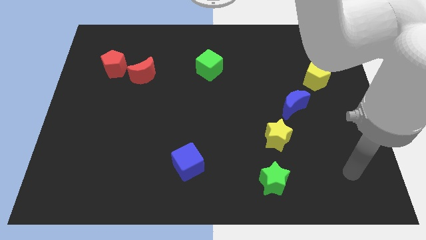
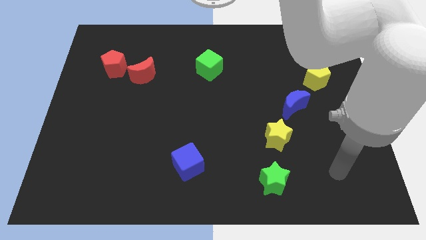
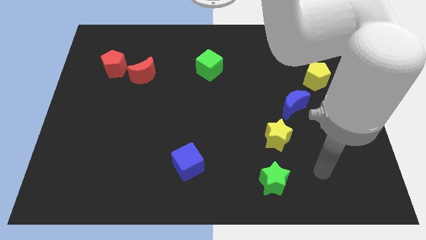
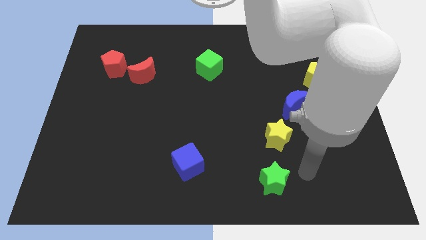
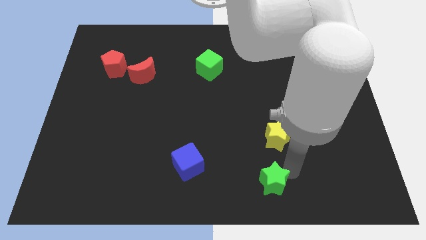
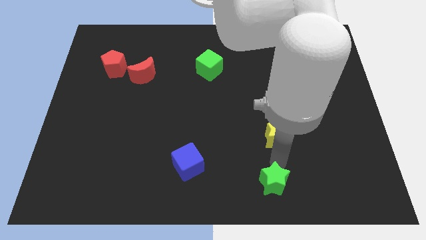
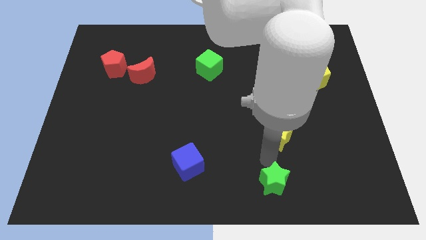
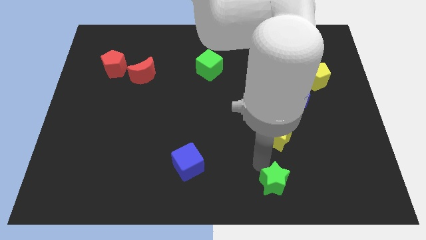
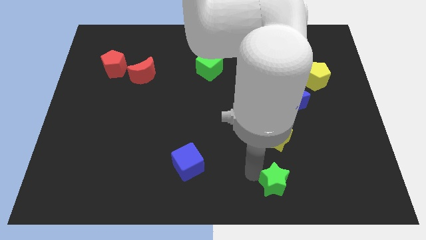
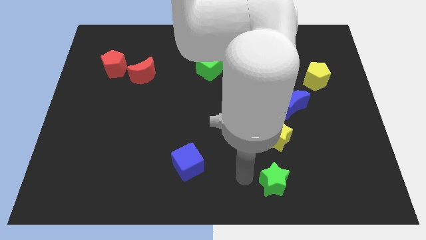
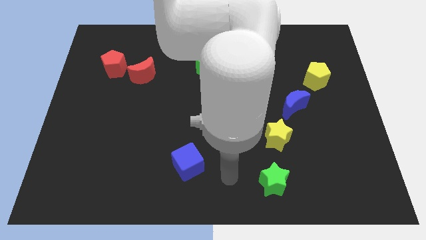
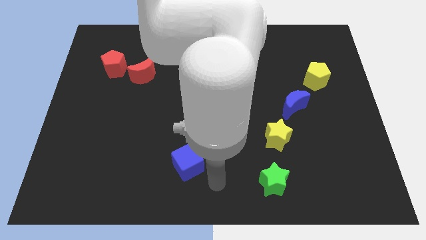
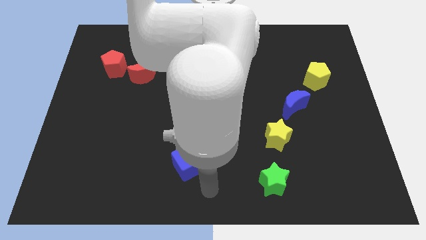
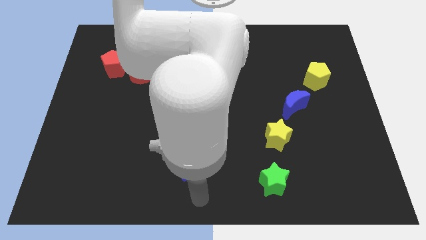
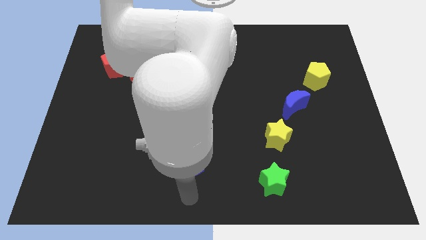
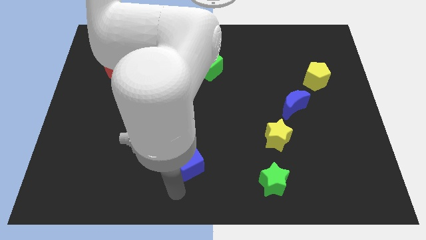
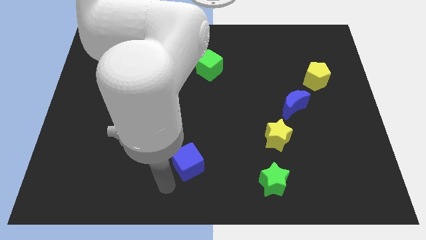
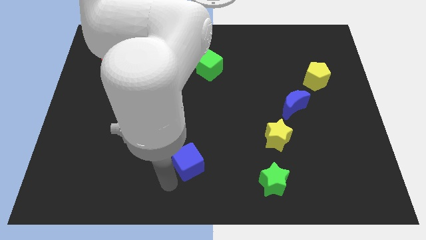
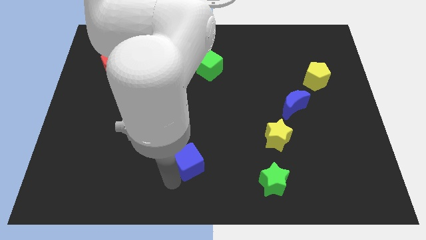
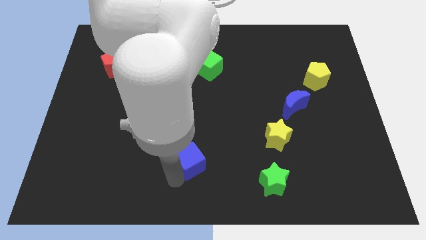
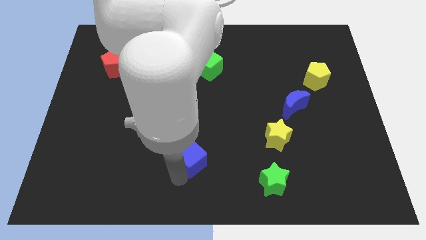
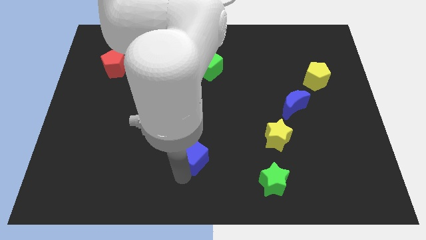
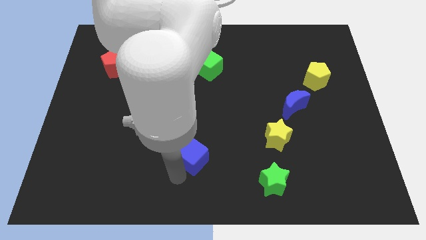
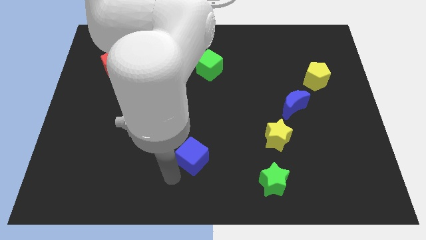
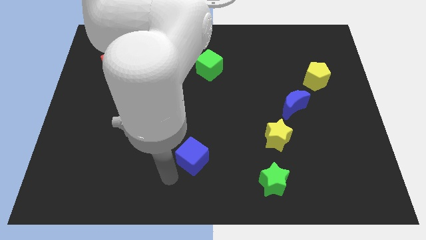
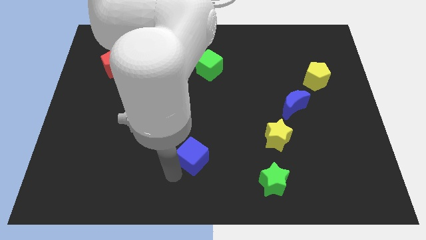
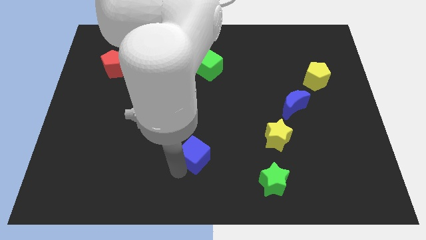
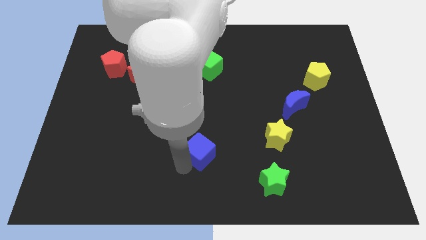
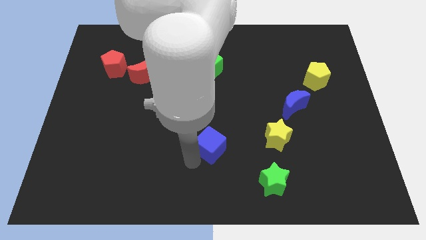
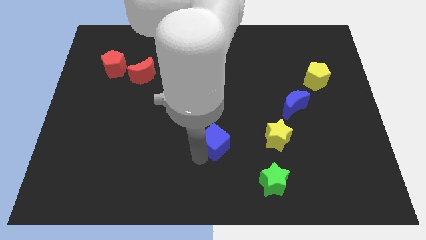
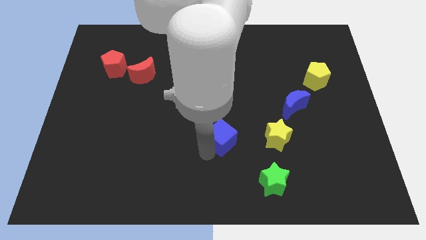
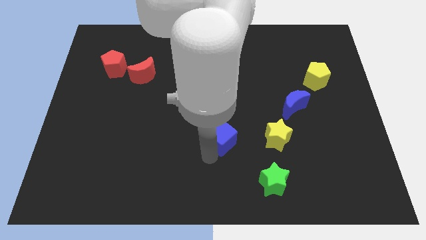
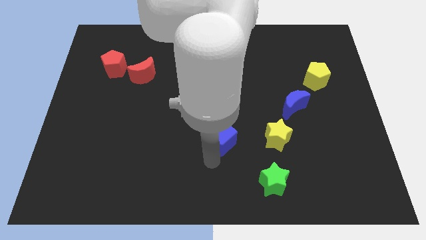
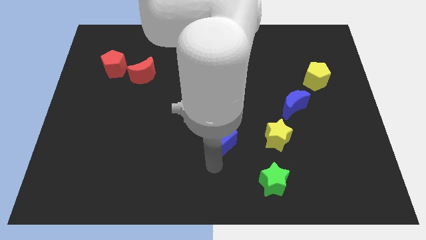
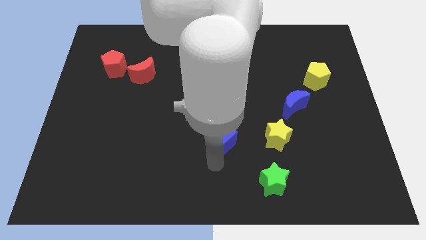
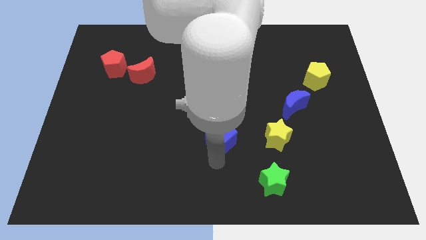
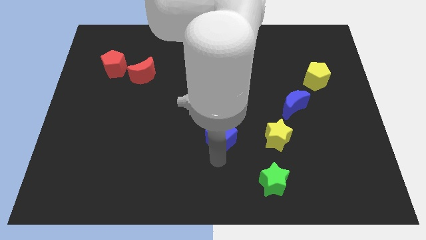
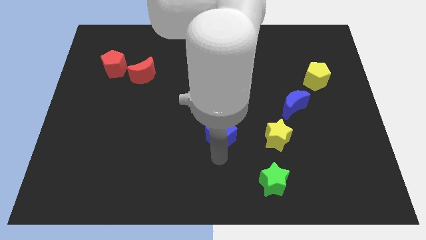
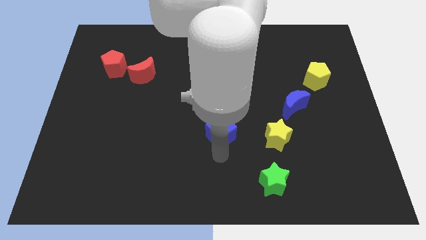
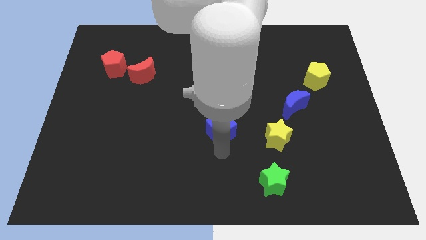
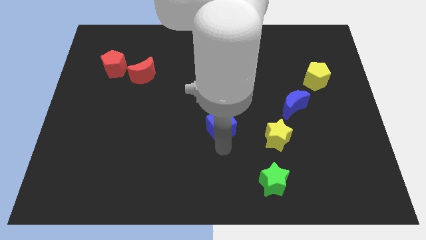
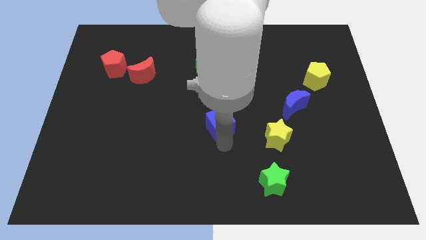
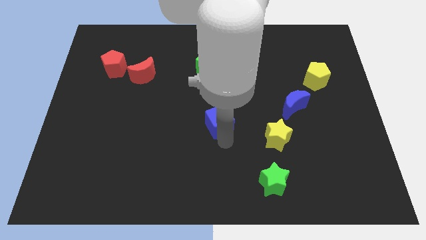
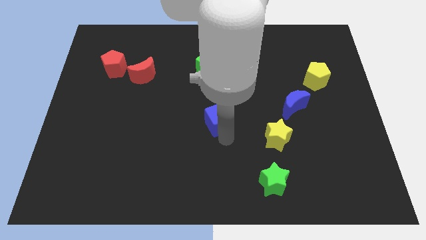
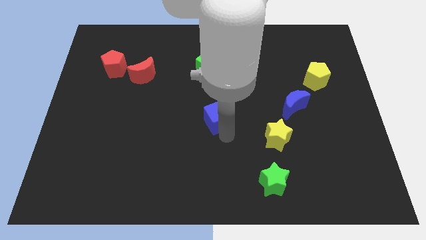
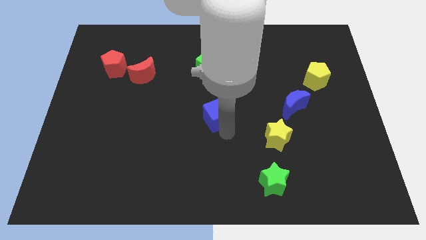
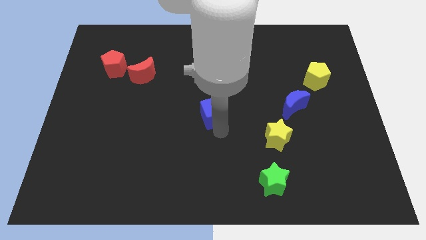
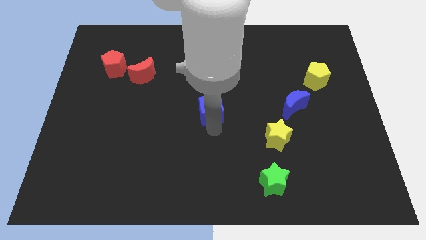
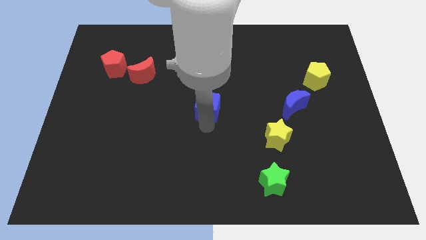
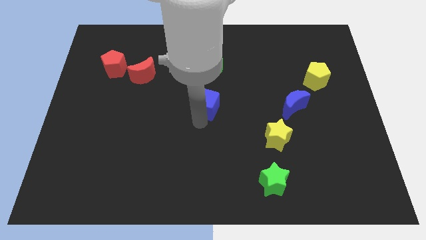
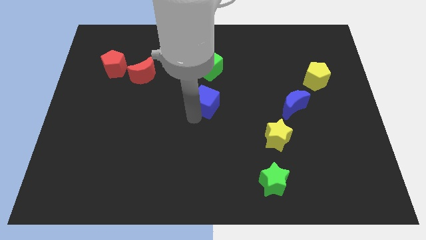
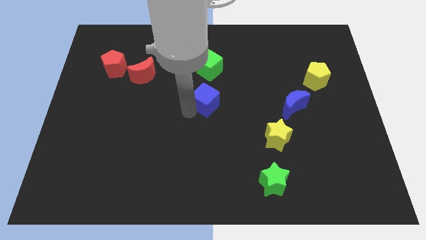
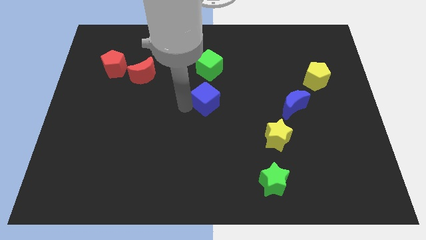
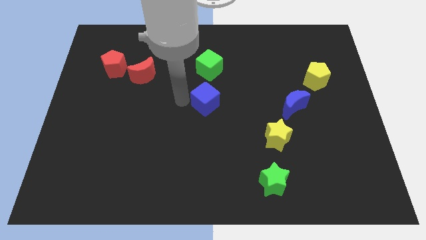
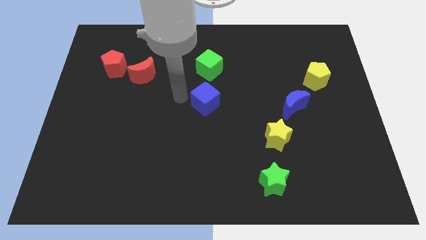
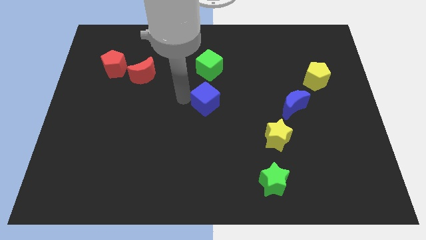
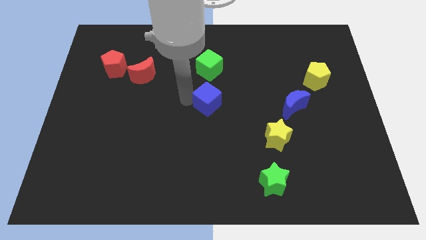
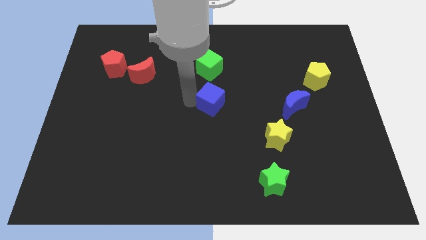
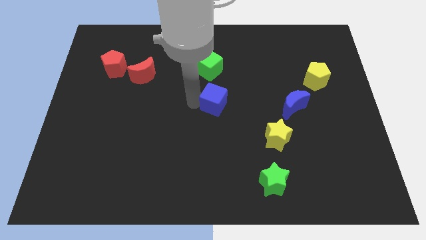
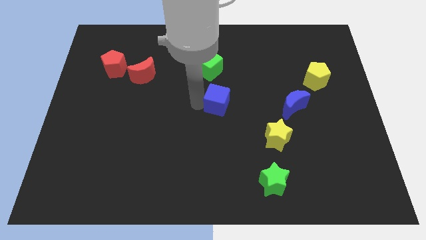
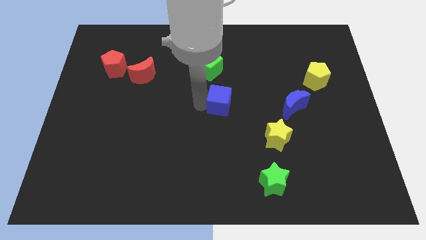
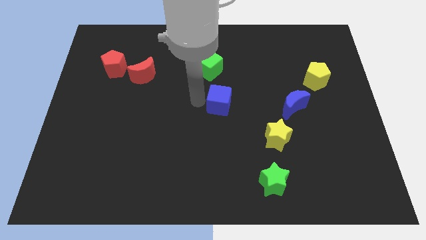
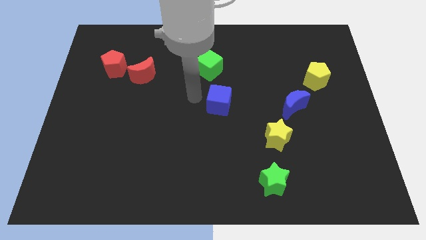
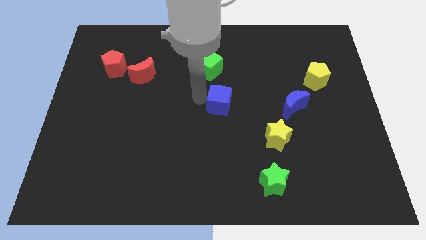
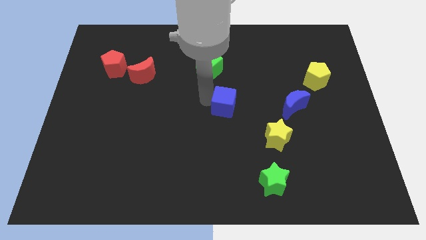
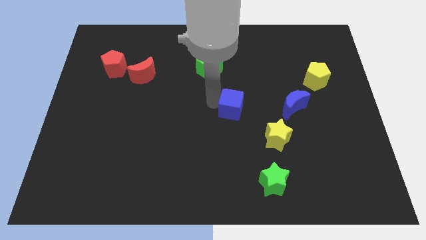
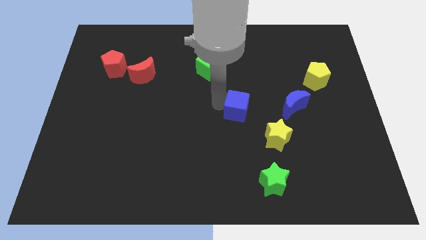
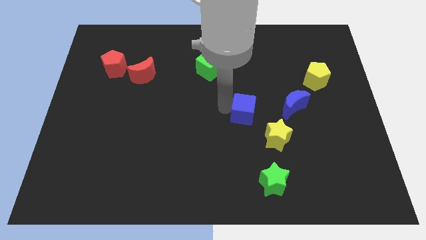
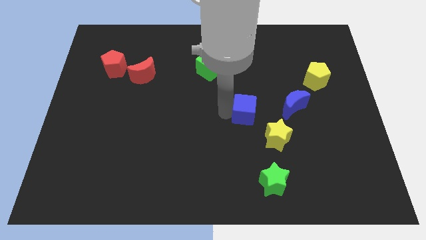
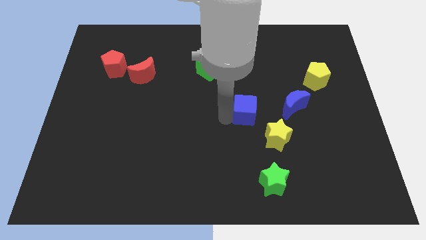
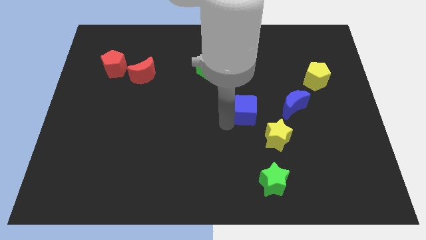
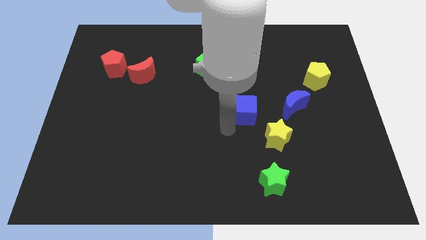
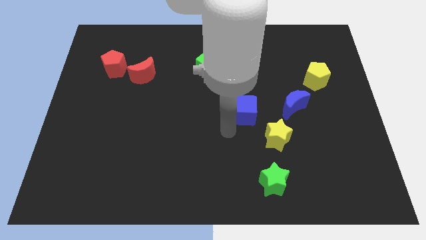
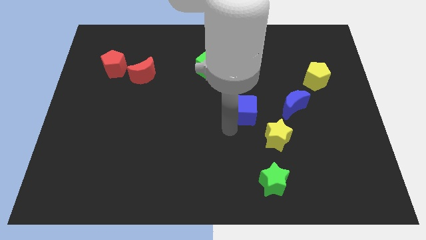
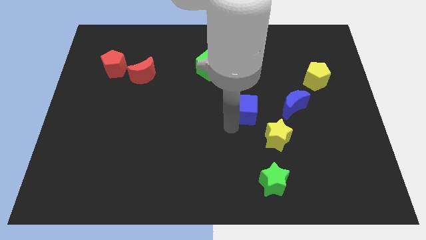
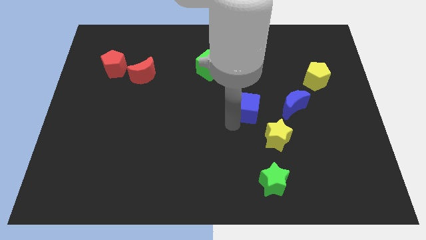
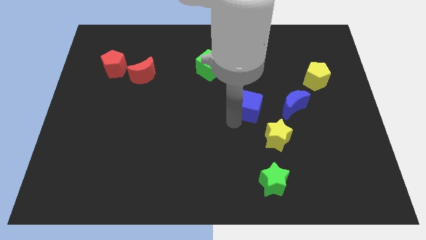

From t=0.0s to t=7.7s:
move the blue cube diagonally upwards and to the right

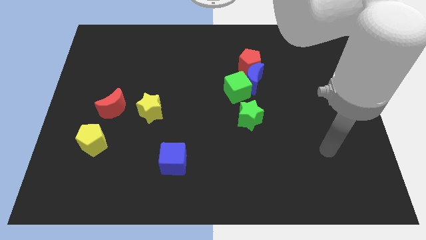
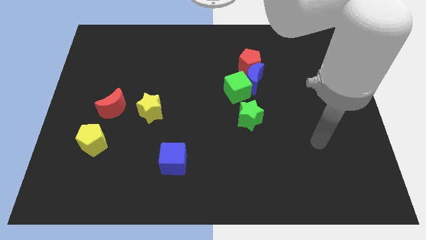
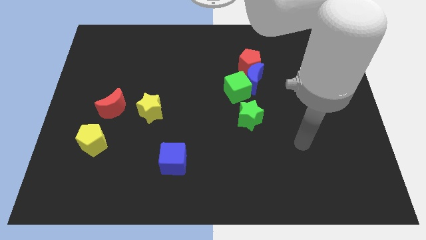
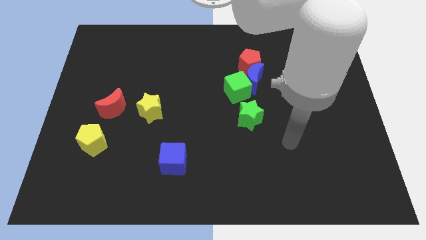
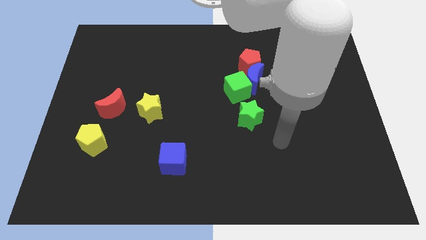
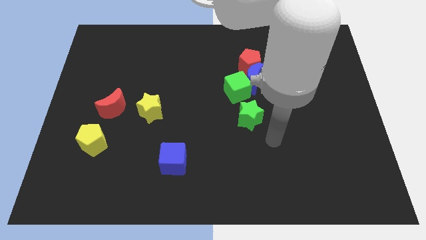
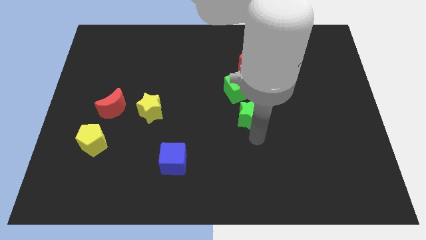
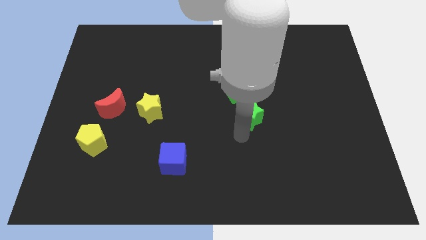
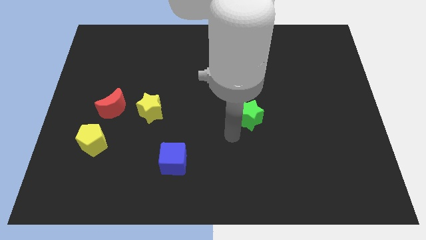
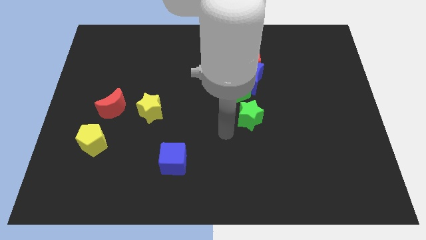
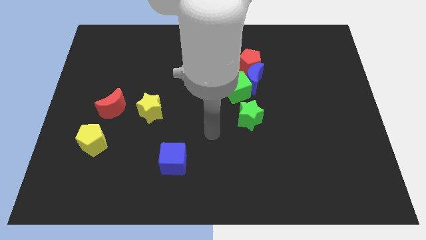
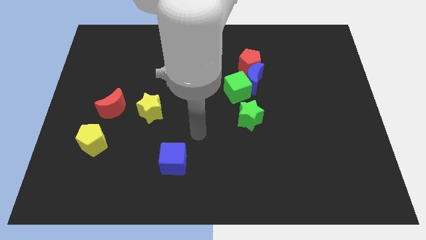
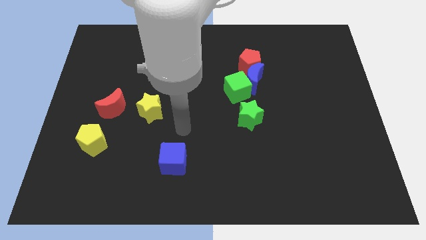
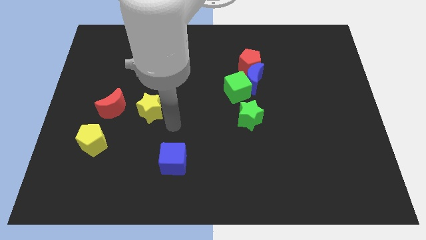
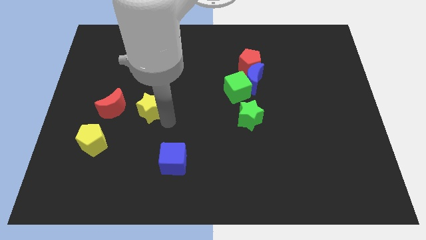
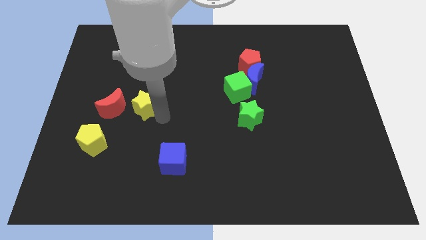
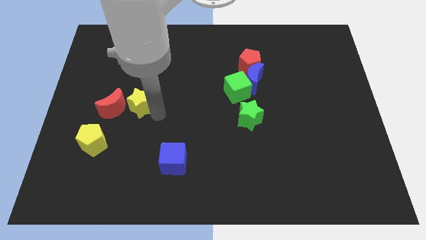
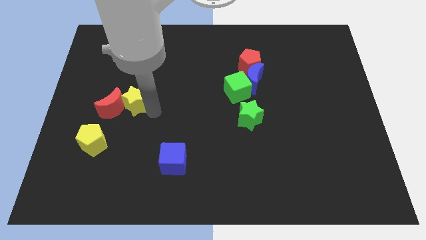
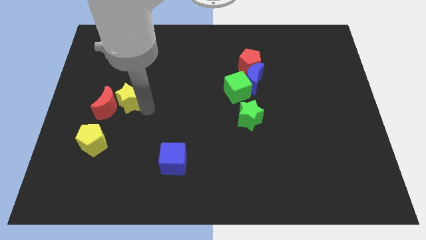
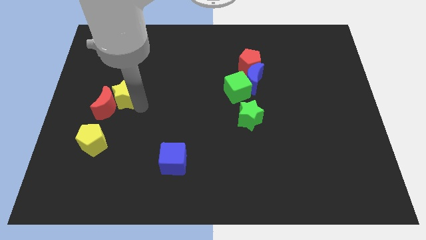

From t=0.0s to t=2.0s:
slightly push the yellow star up and left diagonally
